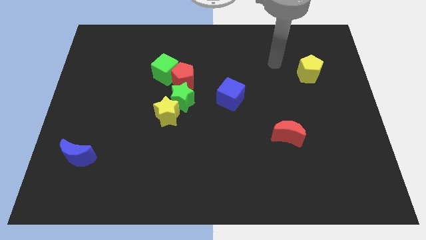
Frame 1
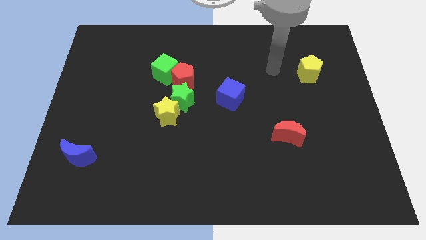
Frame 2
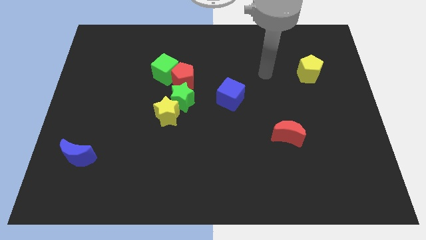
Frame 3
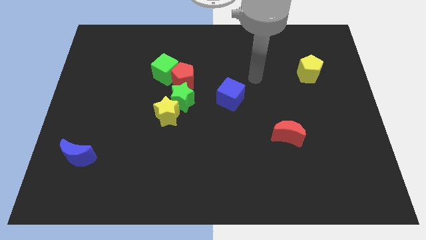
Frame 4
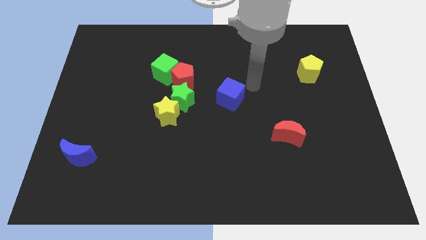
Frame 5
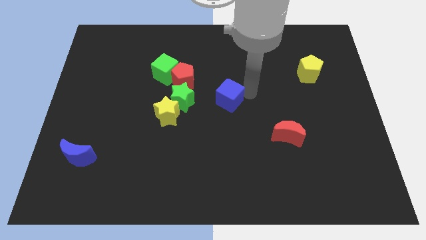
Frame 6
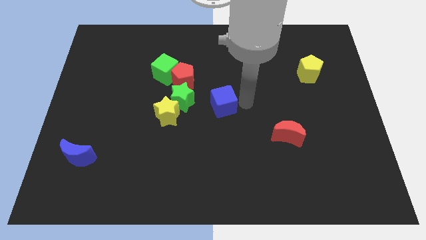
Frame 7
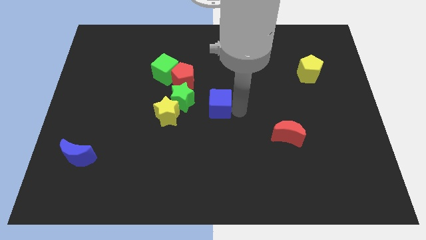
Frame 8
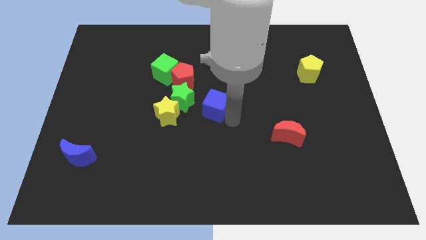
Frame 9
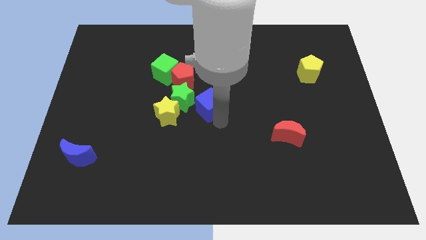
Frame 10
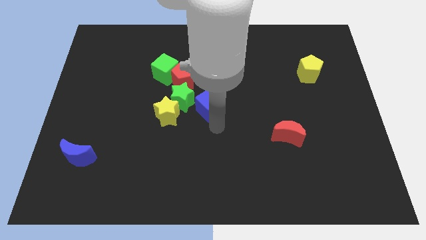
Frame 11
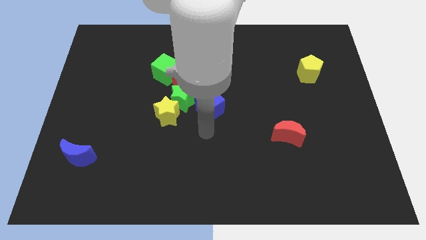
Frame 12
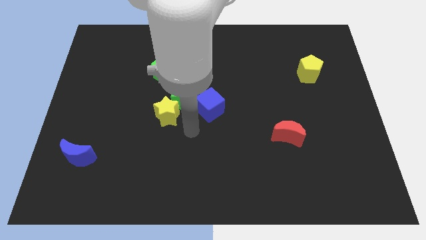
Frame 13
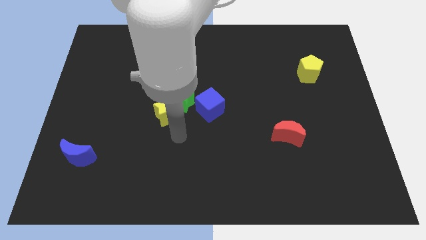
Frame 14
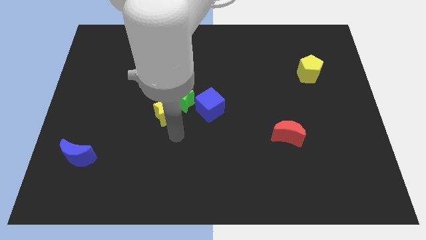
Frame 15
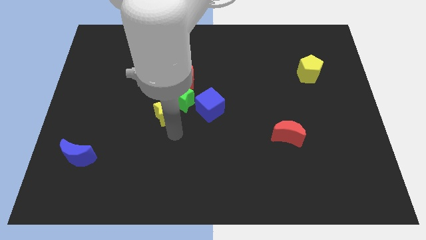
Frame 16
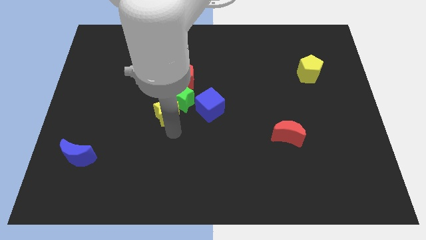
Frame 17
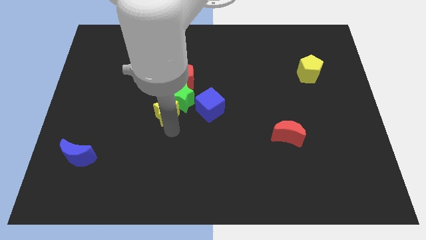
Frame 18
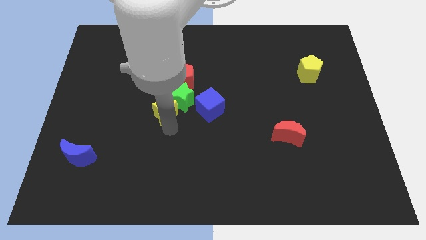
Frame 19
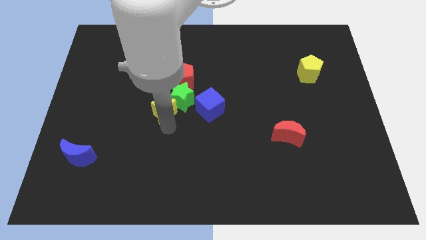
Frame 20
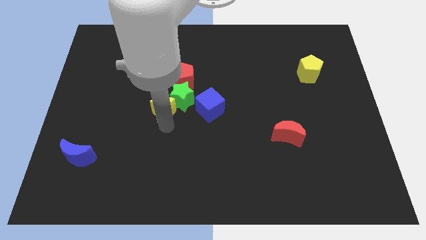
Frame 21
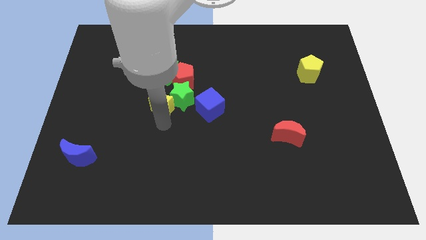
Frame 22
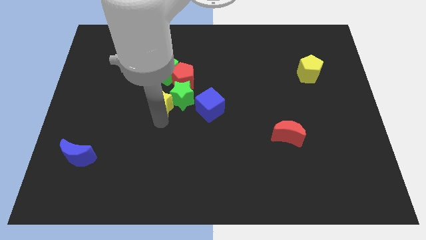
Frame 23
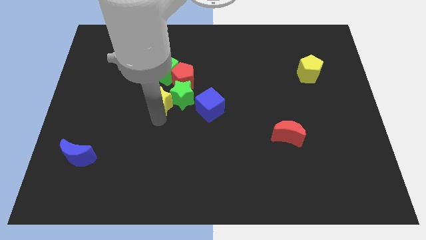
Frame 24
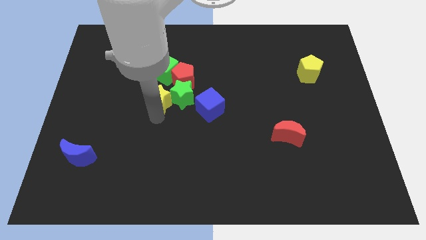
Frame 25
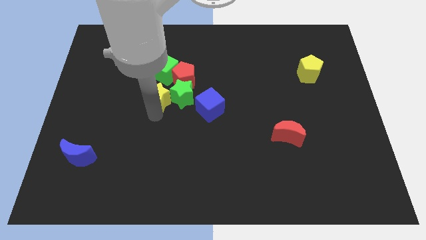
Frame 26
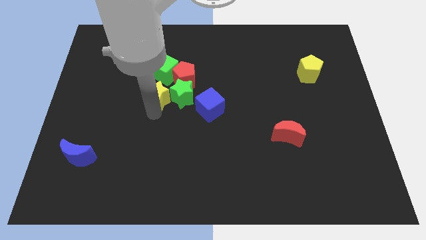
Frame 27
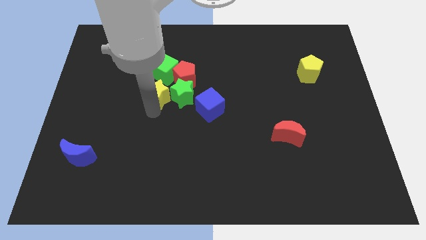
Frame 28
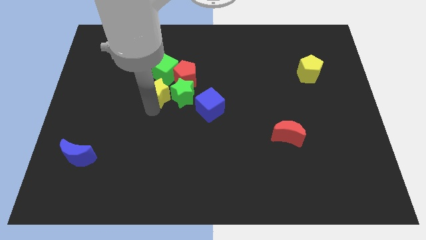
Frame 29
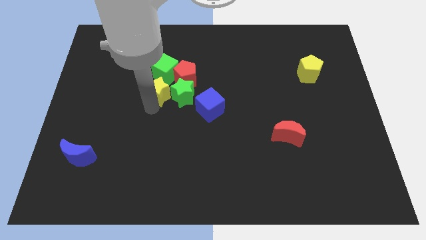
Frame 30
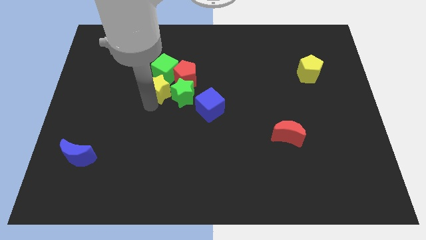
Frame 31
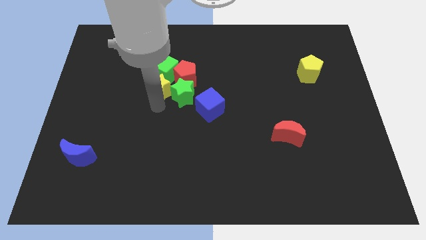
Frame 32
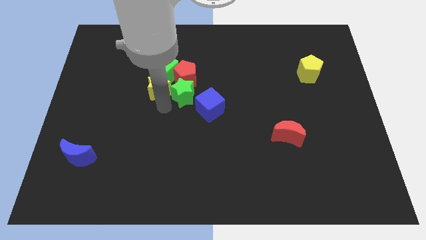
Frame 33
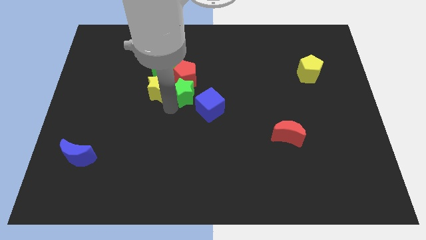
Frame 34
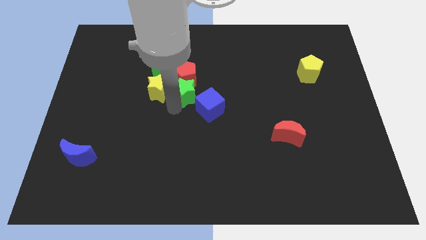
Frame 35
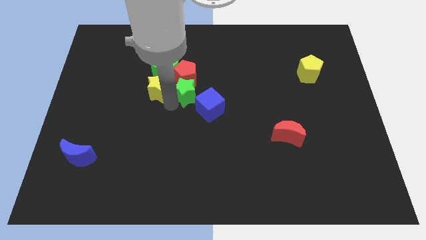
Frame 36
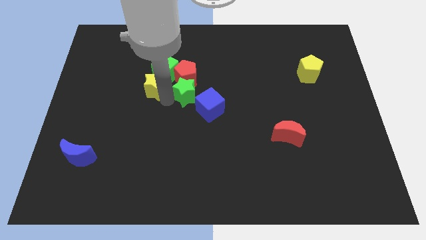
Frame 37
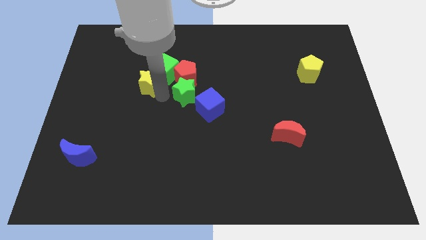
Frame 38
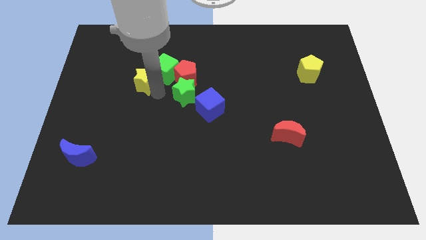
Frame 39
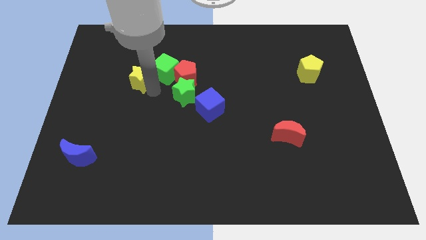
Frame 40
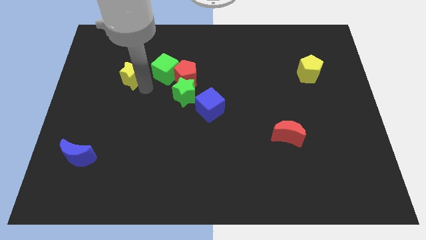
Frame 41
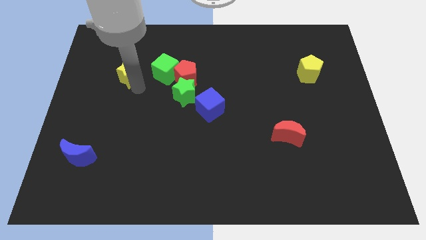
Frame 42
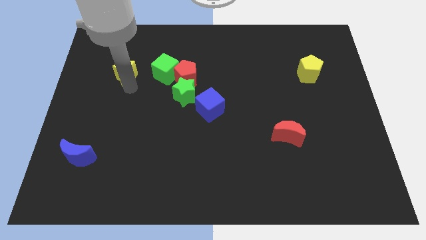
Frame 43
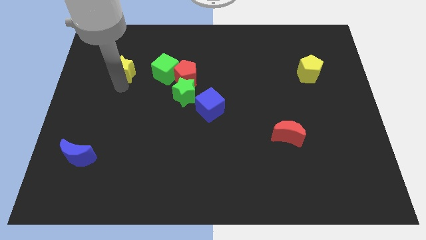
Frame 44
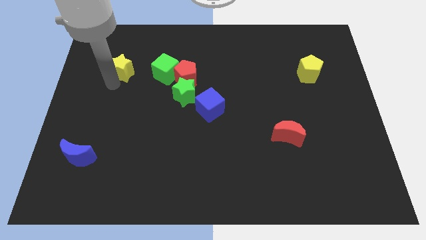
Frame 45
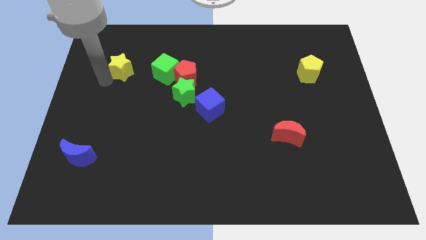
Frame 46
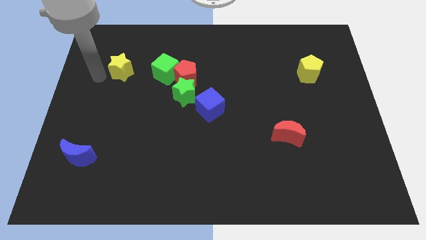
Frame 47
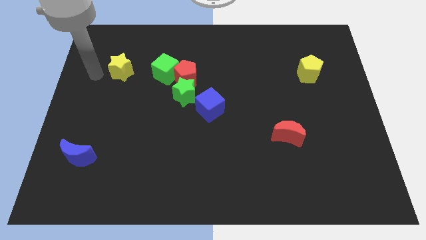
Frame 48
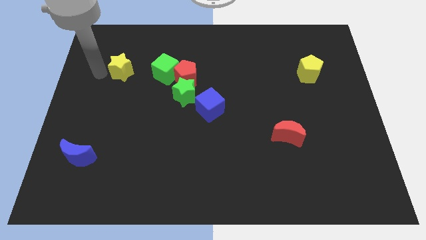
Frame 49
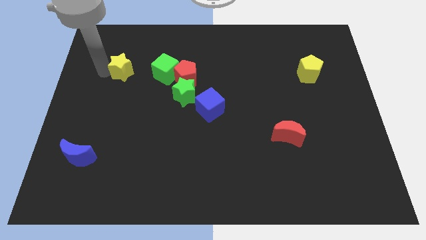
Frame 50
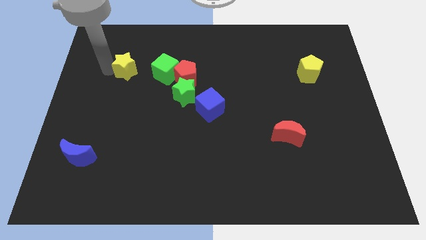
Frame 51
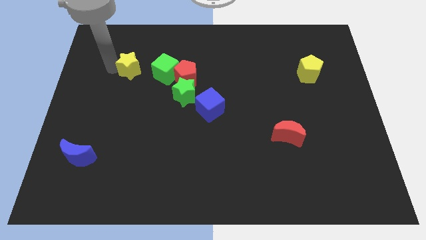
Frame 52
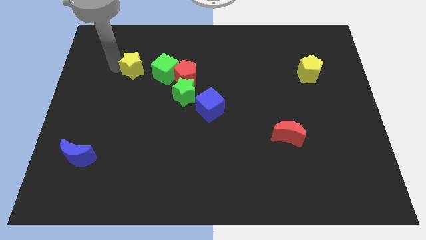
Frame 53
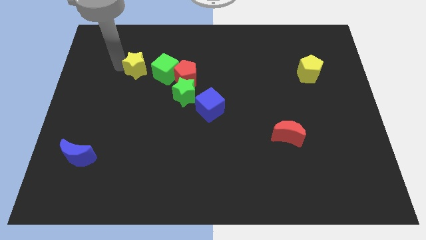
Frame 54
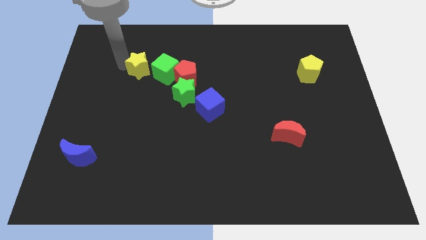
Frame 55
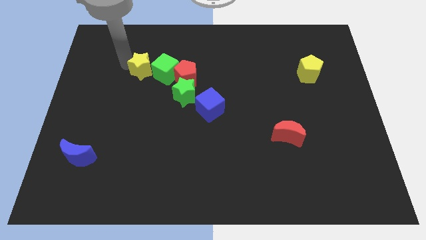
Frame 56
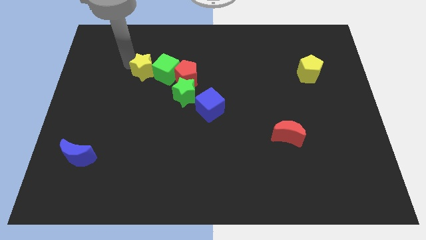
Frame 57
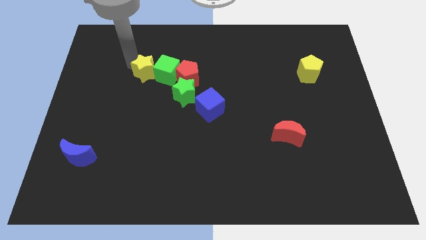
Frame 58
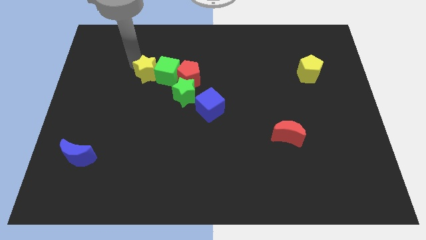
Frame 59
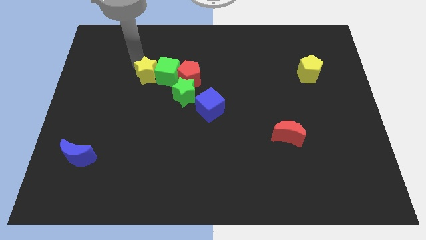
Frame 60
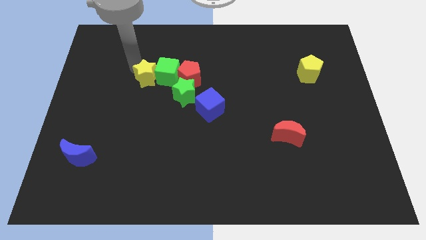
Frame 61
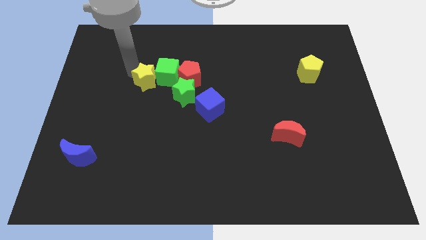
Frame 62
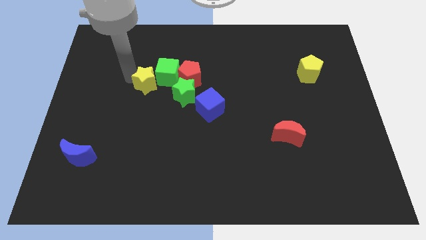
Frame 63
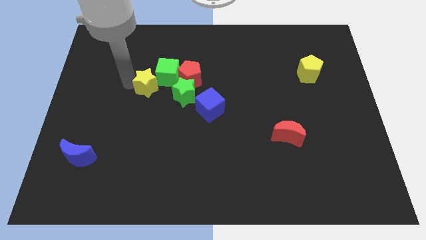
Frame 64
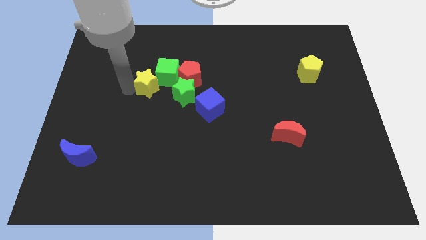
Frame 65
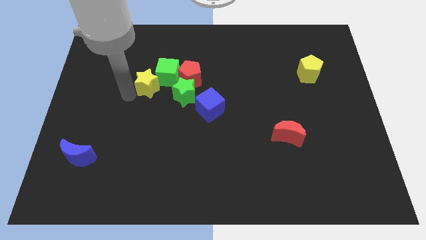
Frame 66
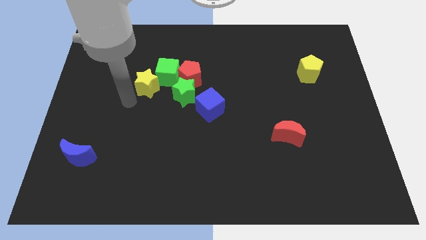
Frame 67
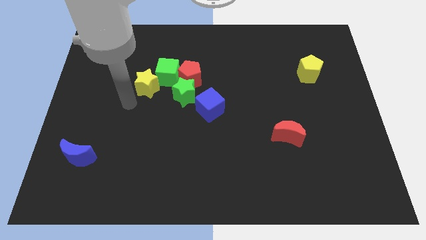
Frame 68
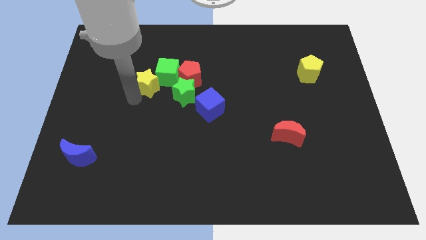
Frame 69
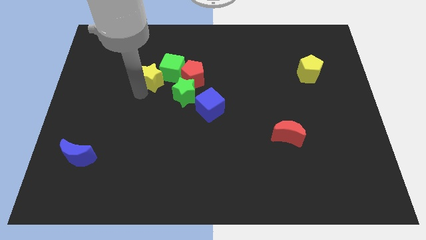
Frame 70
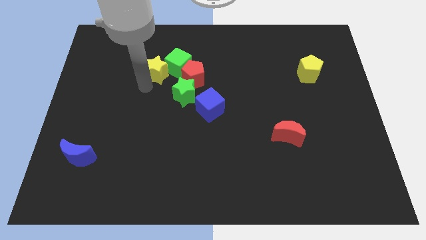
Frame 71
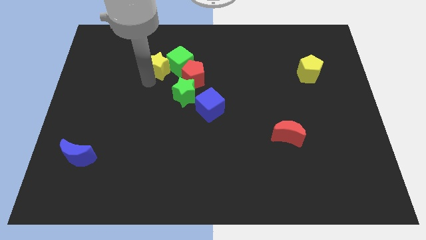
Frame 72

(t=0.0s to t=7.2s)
push the yellow star to the top left side of the red pentagon

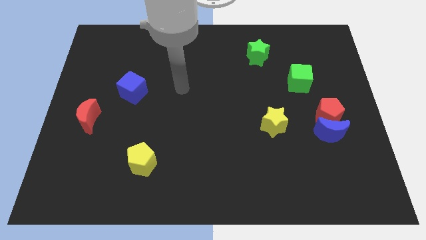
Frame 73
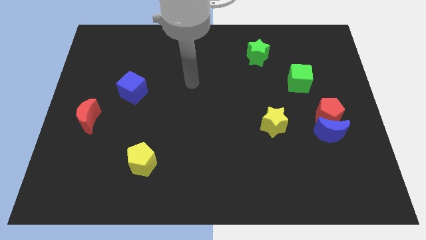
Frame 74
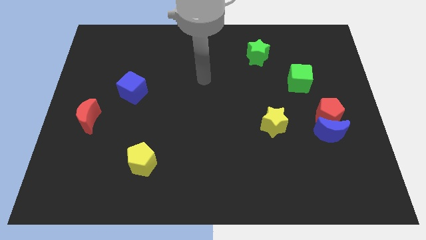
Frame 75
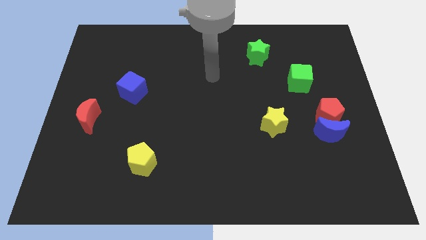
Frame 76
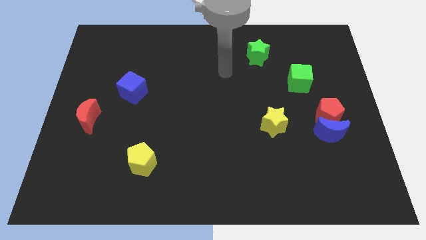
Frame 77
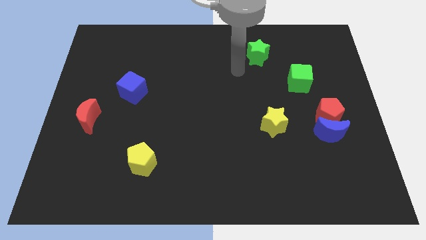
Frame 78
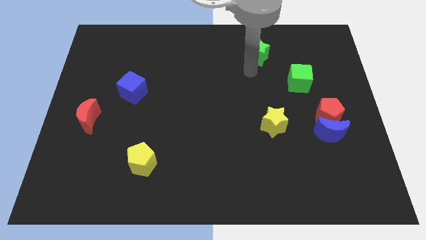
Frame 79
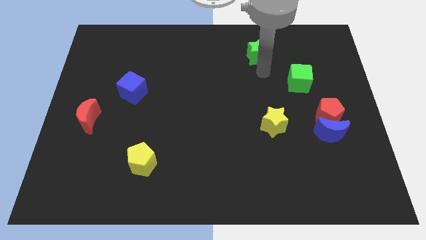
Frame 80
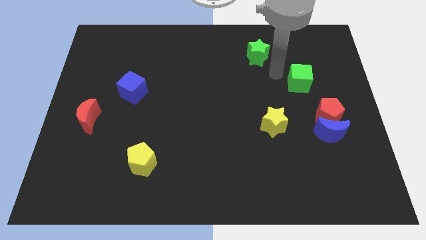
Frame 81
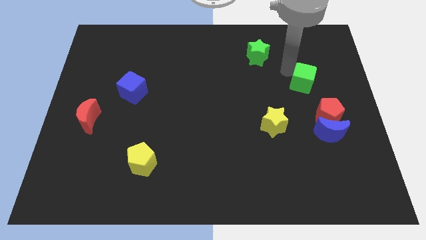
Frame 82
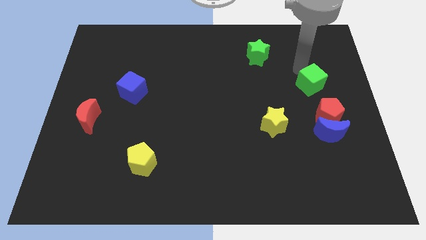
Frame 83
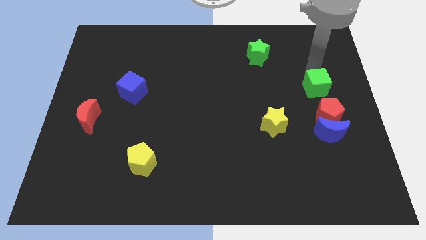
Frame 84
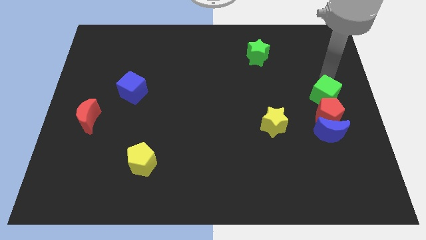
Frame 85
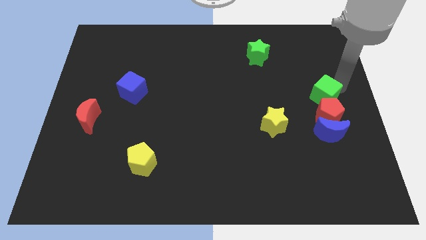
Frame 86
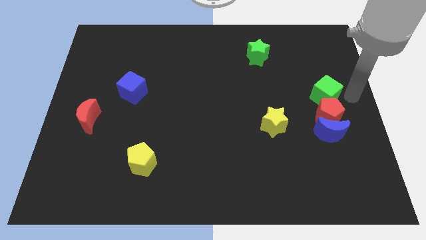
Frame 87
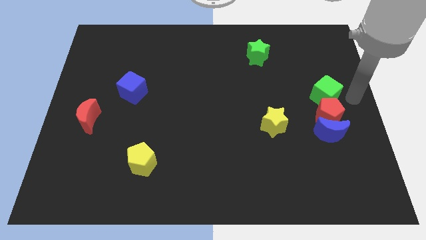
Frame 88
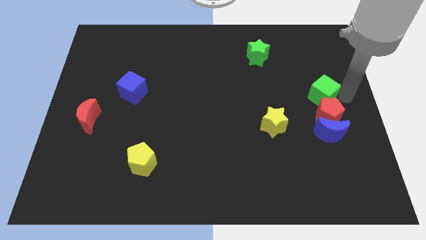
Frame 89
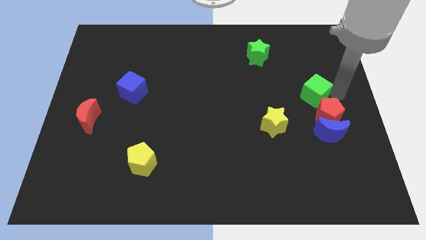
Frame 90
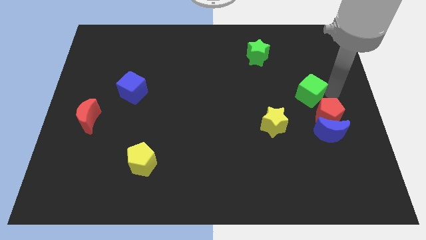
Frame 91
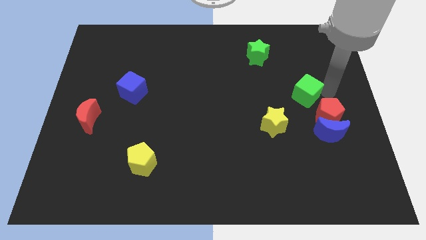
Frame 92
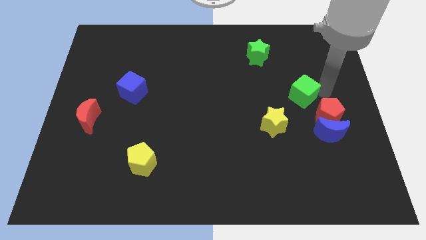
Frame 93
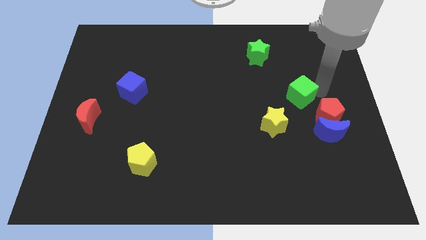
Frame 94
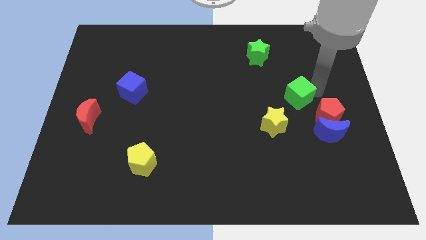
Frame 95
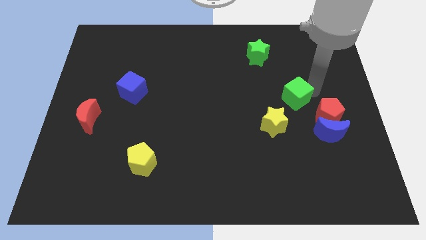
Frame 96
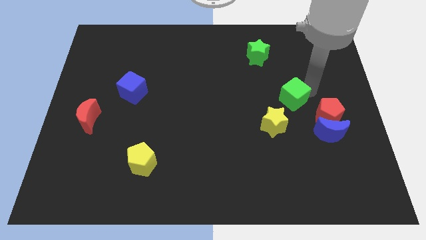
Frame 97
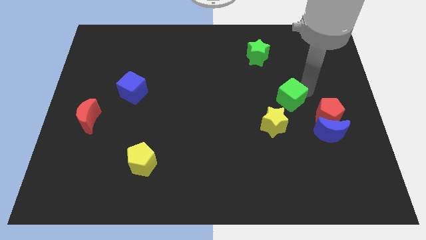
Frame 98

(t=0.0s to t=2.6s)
push the green cube above the yellow star
